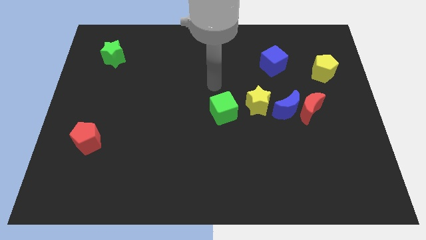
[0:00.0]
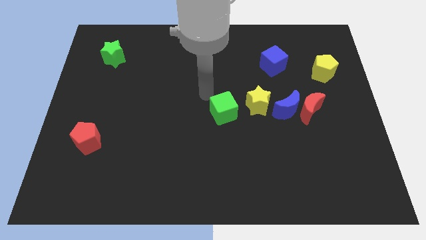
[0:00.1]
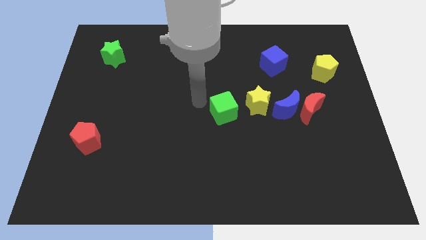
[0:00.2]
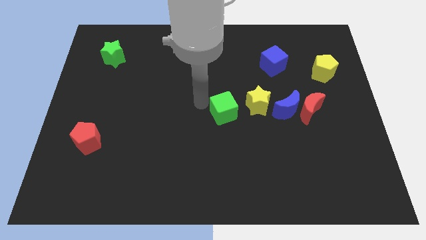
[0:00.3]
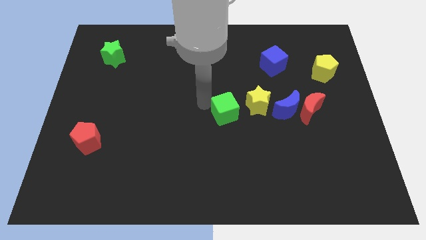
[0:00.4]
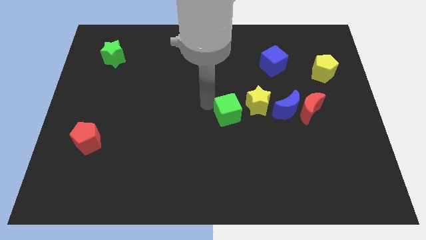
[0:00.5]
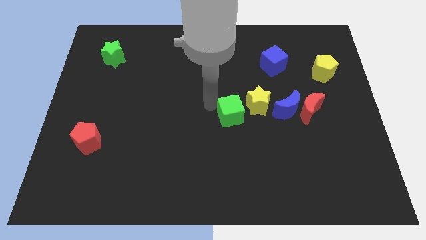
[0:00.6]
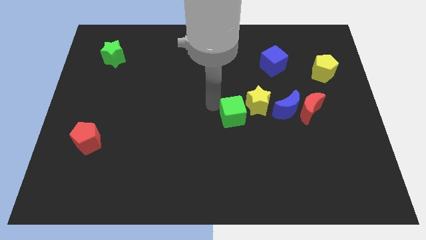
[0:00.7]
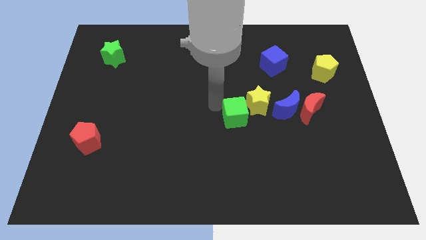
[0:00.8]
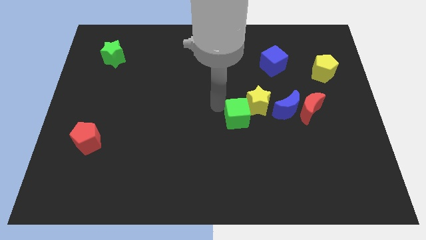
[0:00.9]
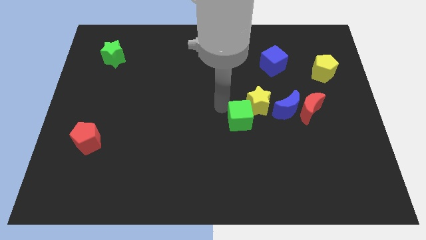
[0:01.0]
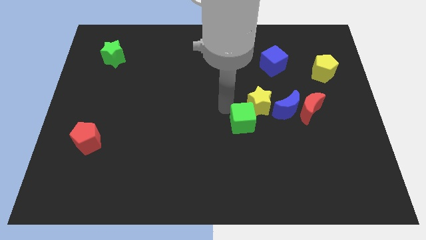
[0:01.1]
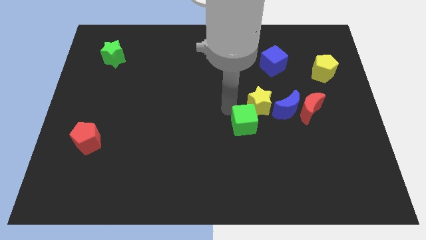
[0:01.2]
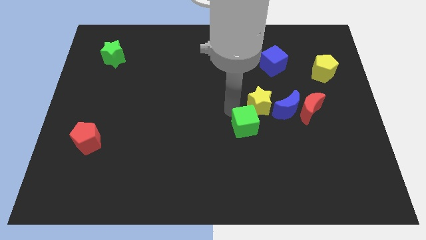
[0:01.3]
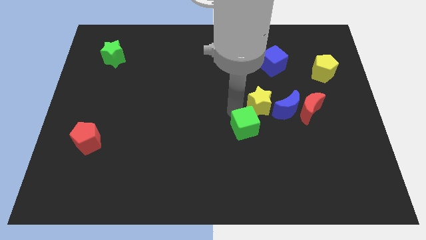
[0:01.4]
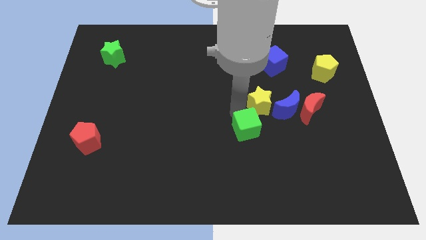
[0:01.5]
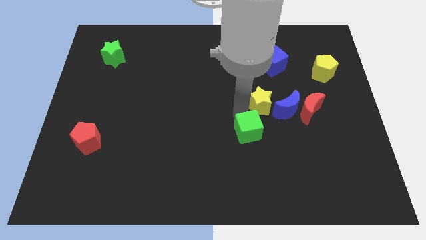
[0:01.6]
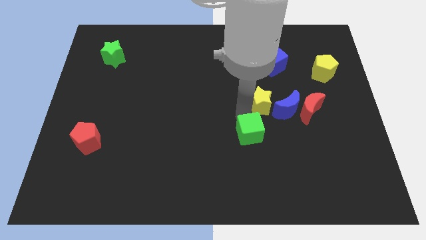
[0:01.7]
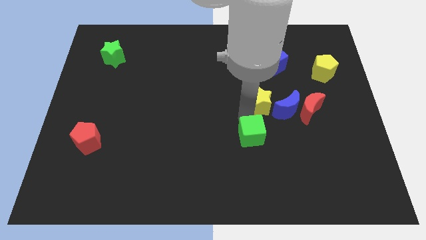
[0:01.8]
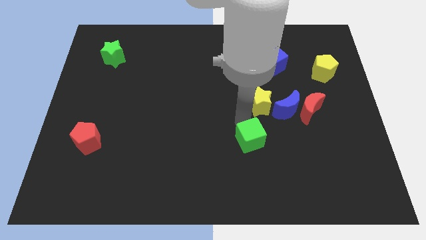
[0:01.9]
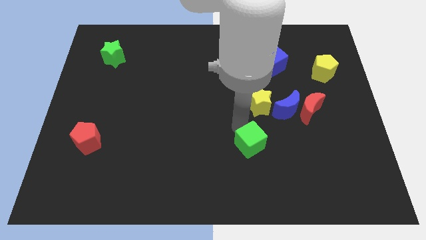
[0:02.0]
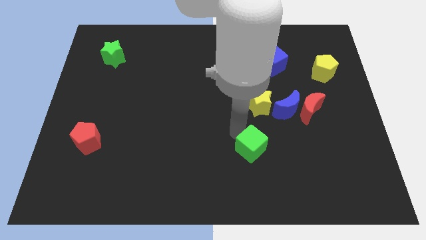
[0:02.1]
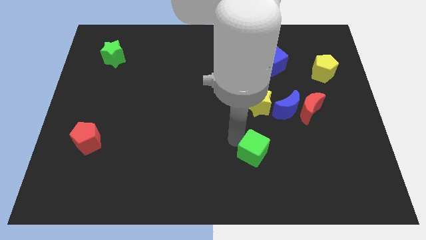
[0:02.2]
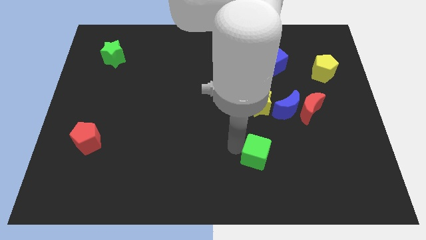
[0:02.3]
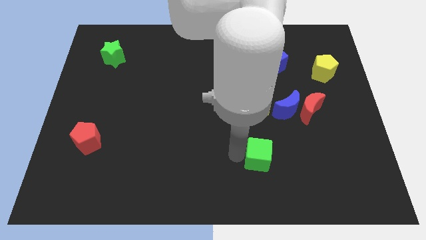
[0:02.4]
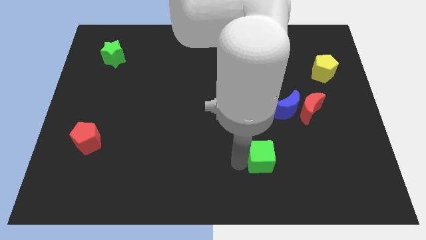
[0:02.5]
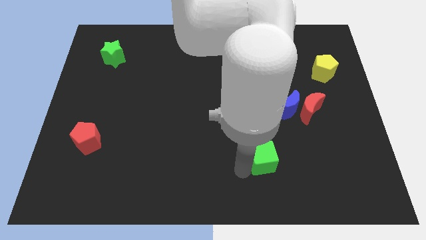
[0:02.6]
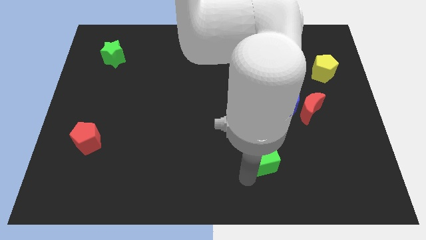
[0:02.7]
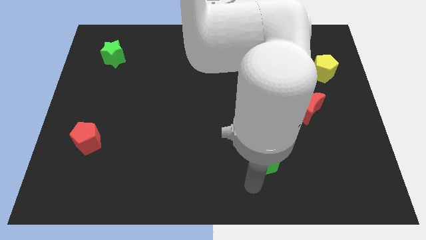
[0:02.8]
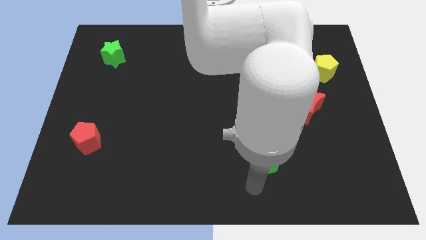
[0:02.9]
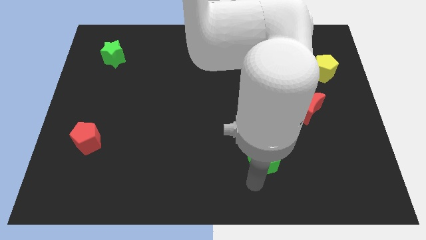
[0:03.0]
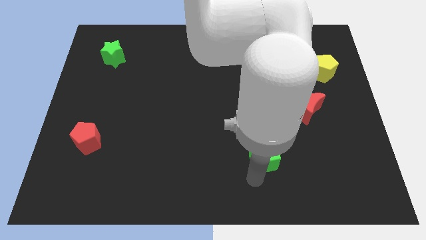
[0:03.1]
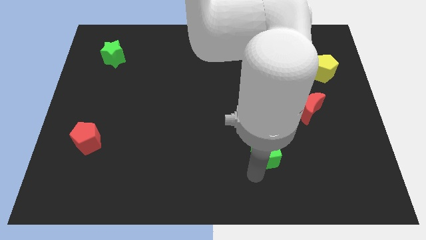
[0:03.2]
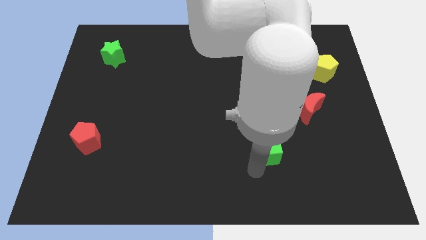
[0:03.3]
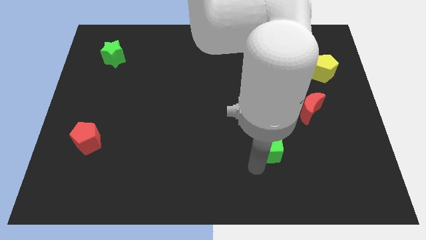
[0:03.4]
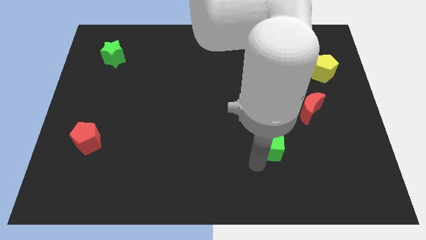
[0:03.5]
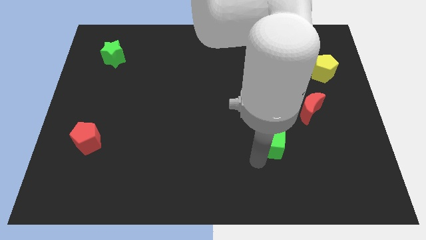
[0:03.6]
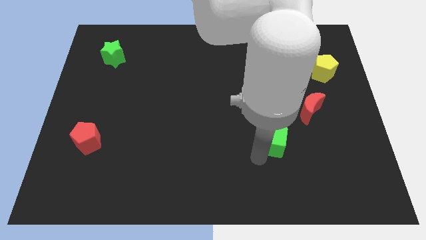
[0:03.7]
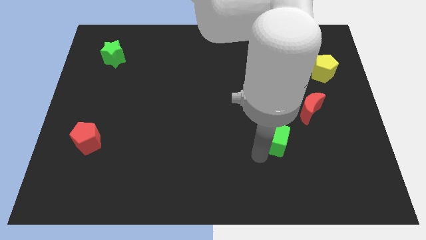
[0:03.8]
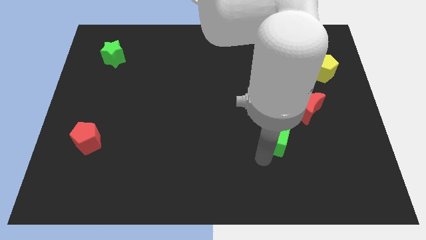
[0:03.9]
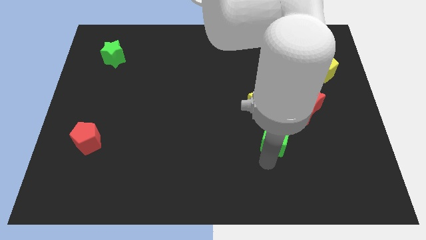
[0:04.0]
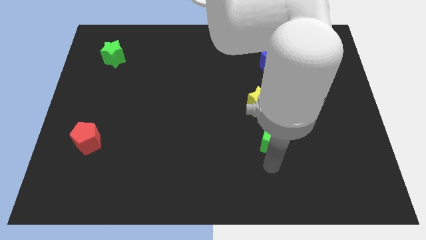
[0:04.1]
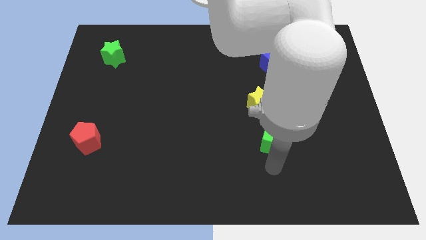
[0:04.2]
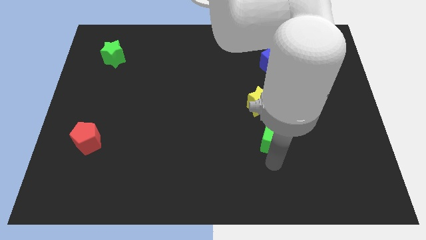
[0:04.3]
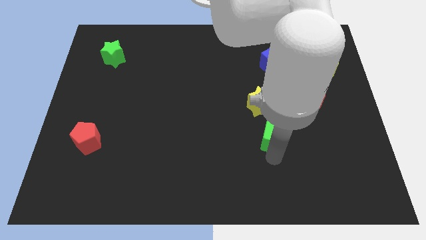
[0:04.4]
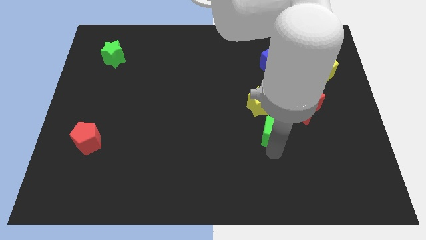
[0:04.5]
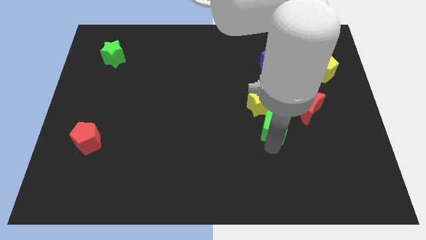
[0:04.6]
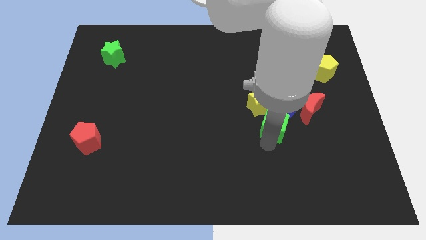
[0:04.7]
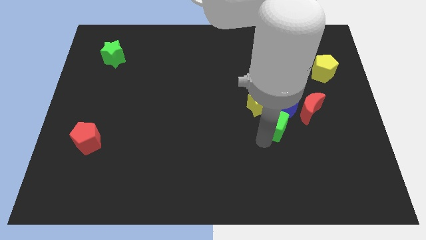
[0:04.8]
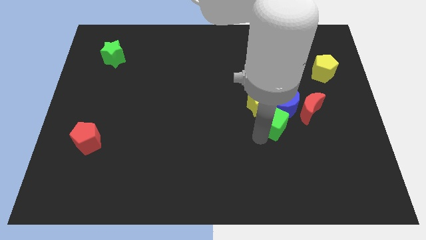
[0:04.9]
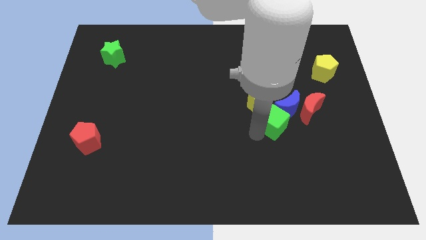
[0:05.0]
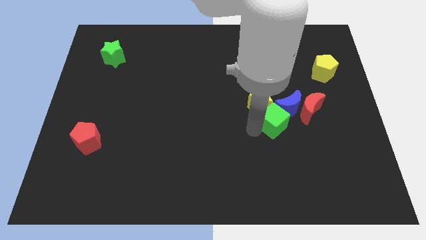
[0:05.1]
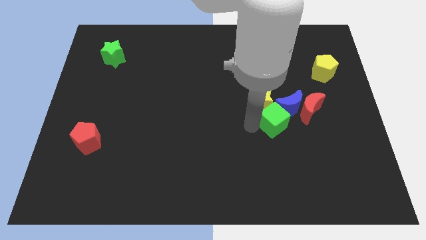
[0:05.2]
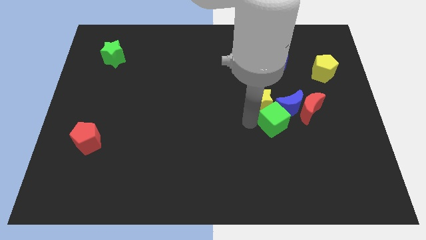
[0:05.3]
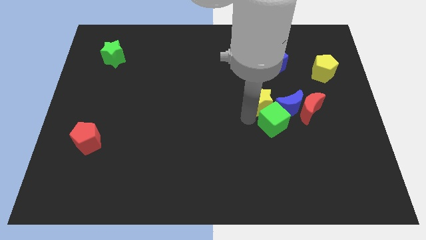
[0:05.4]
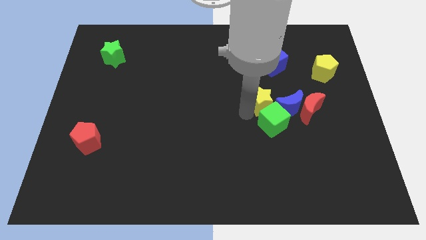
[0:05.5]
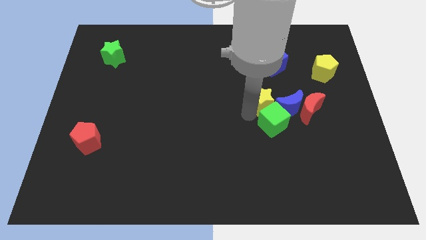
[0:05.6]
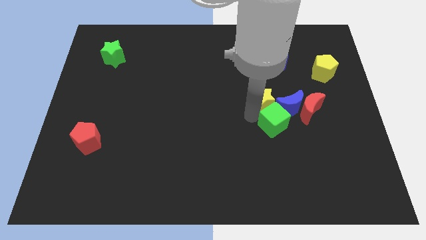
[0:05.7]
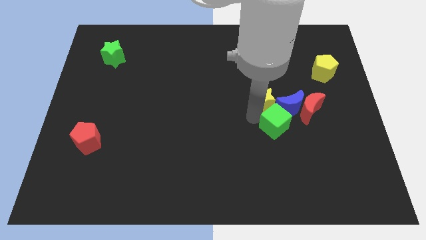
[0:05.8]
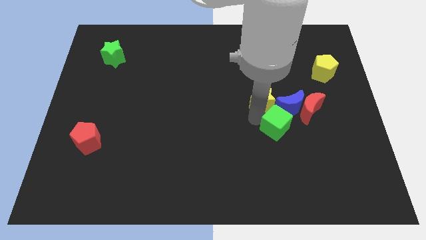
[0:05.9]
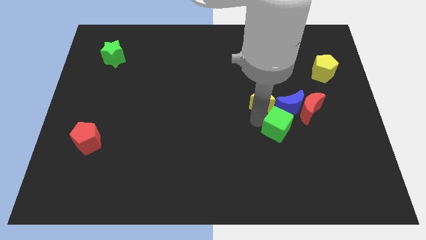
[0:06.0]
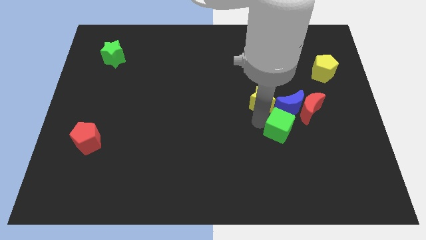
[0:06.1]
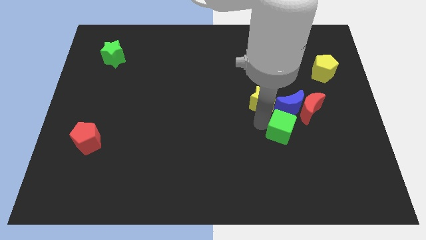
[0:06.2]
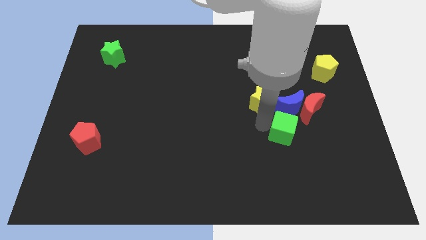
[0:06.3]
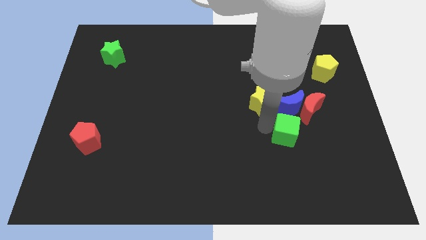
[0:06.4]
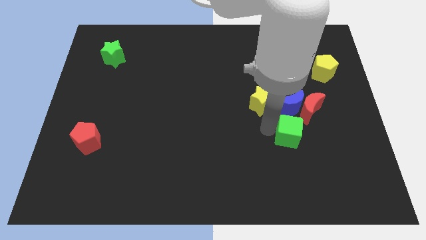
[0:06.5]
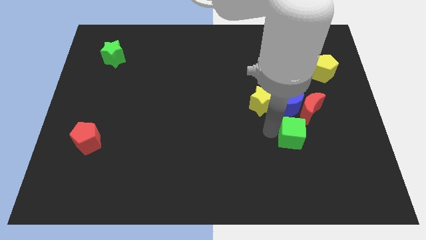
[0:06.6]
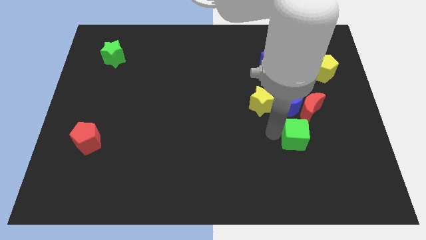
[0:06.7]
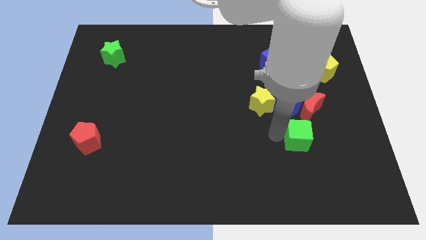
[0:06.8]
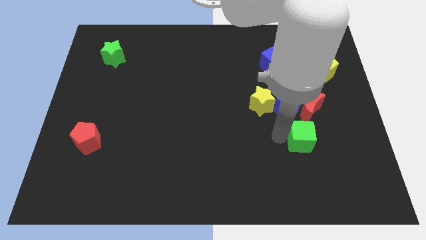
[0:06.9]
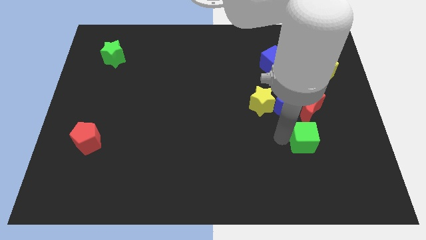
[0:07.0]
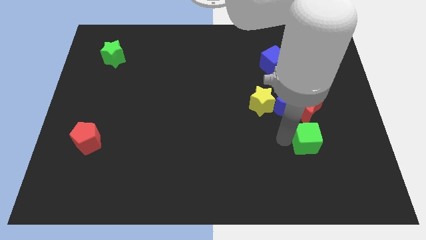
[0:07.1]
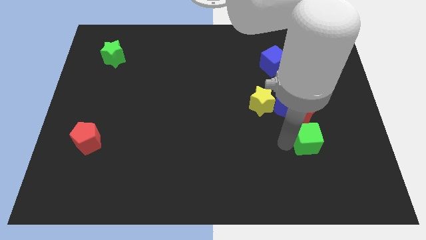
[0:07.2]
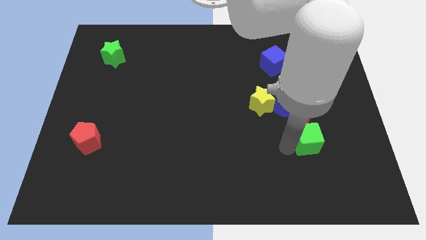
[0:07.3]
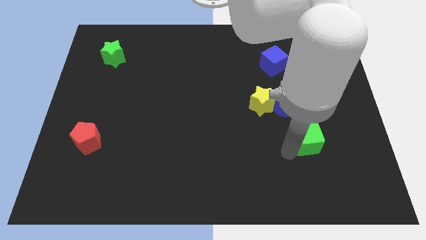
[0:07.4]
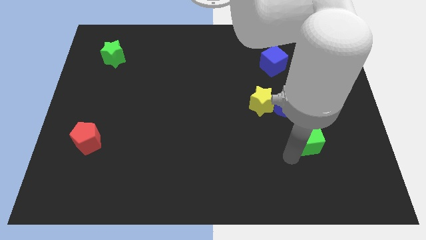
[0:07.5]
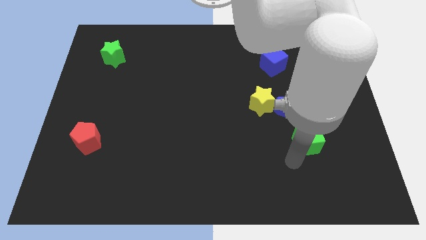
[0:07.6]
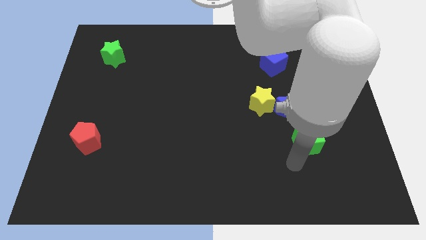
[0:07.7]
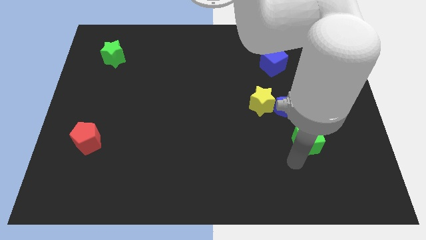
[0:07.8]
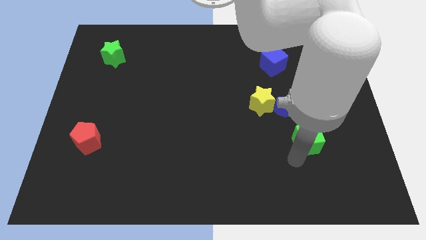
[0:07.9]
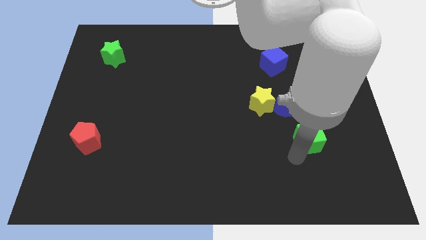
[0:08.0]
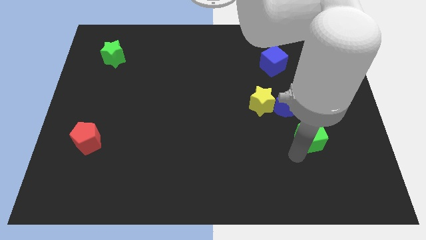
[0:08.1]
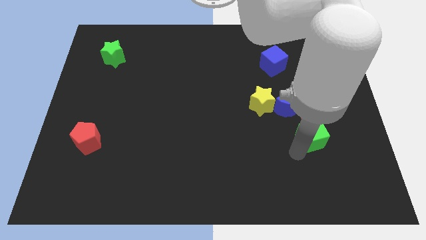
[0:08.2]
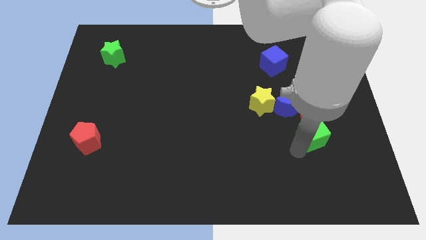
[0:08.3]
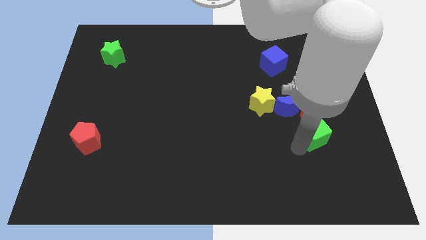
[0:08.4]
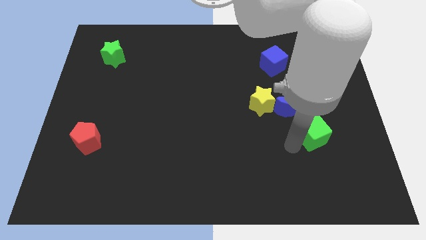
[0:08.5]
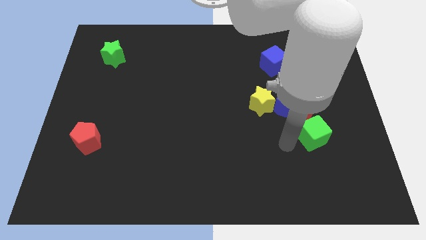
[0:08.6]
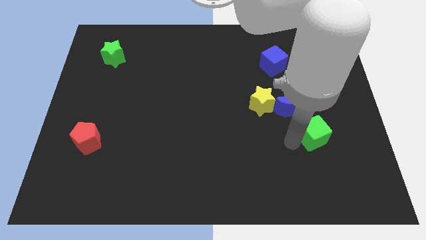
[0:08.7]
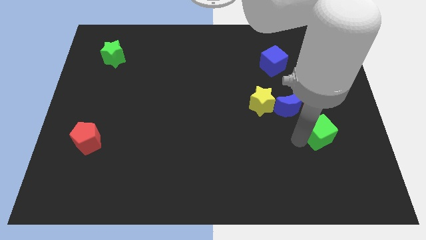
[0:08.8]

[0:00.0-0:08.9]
move the green cube to the bottom right of the red moon
